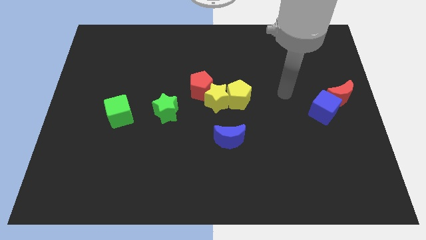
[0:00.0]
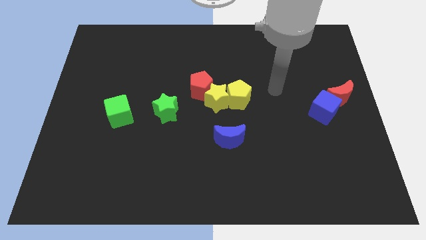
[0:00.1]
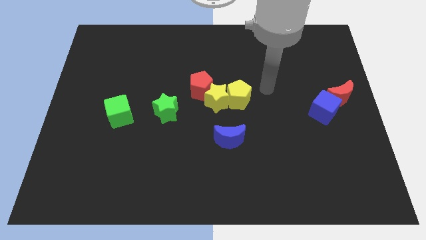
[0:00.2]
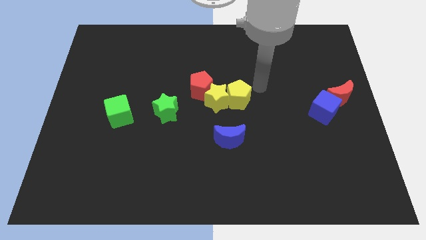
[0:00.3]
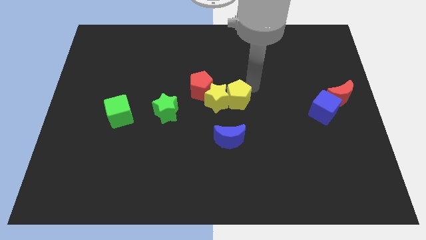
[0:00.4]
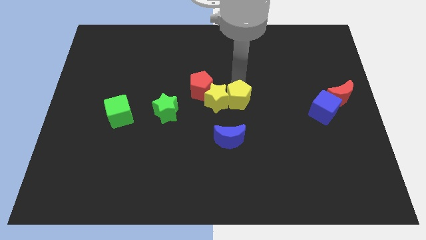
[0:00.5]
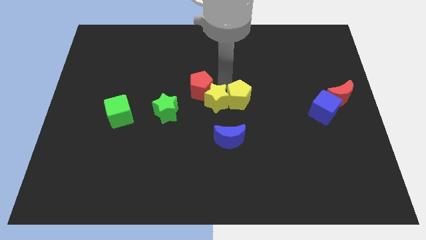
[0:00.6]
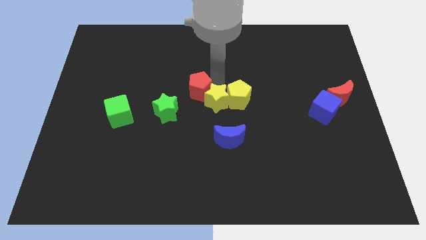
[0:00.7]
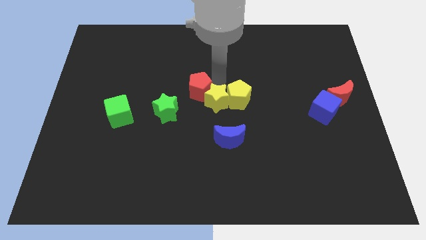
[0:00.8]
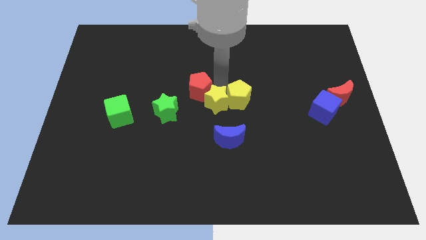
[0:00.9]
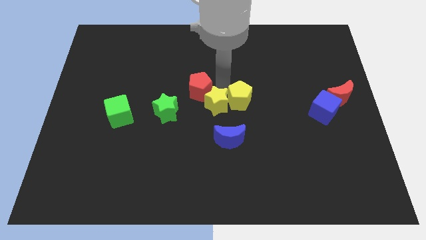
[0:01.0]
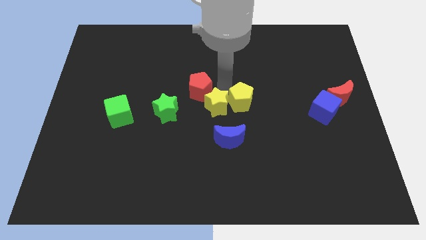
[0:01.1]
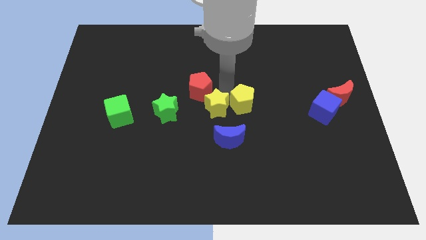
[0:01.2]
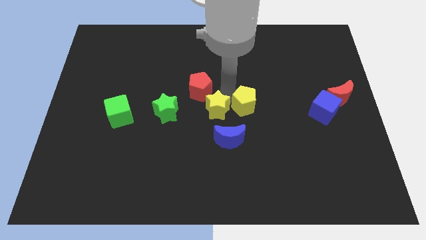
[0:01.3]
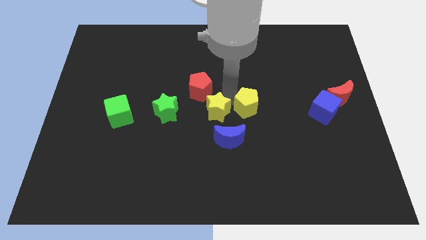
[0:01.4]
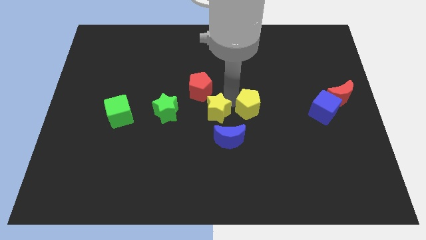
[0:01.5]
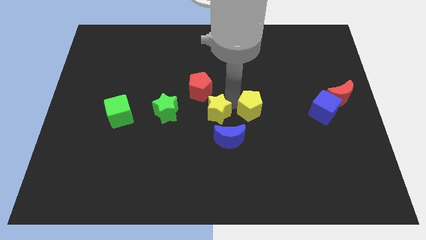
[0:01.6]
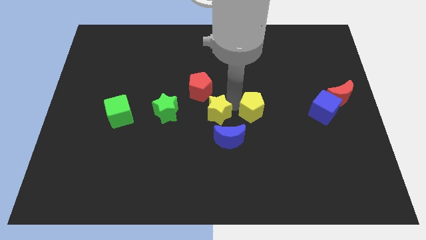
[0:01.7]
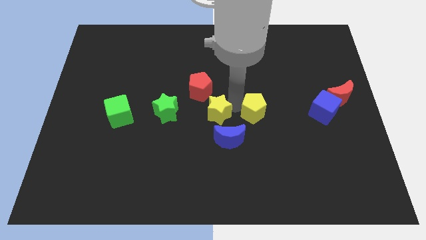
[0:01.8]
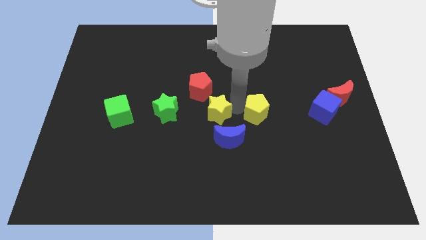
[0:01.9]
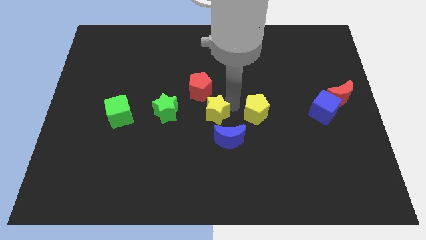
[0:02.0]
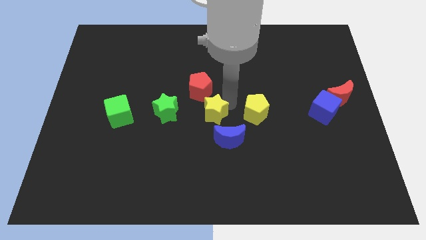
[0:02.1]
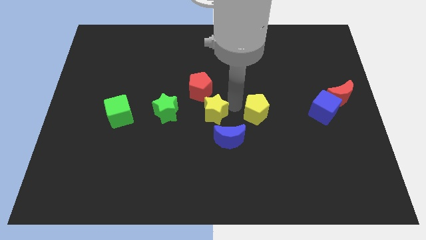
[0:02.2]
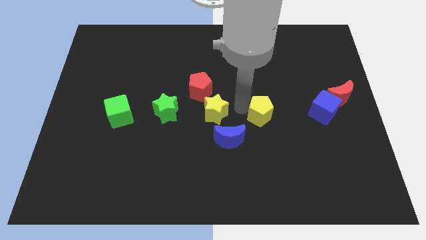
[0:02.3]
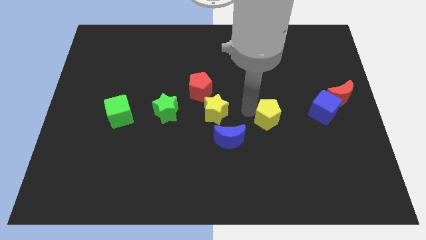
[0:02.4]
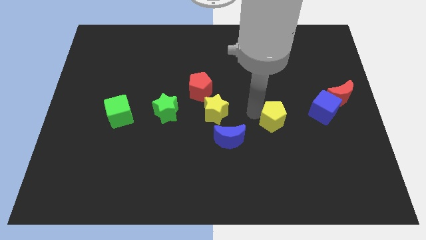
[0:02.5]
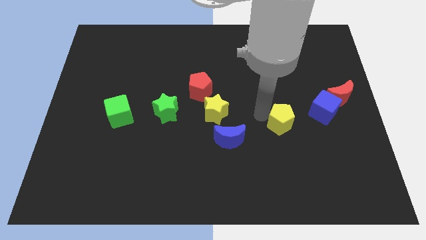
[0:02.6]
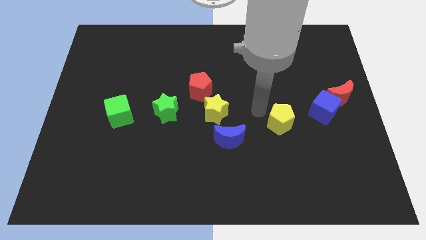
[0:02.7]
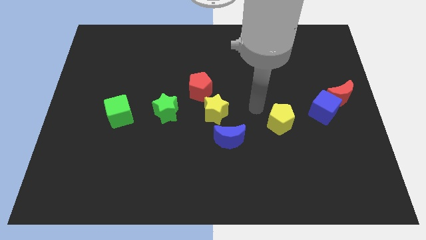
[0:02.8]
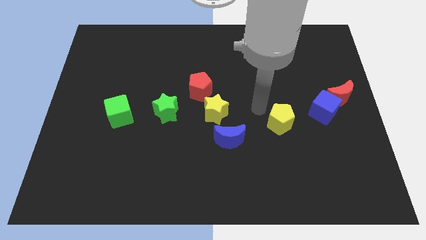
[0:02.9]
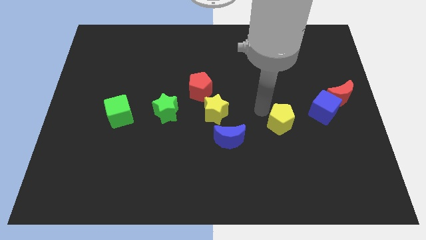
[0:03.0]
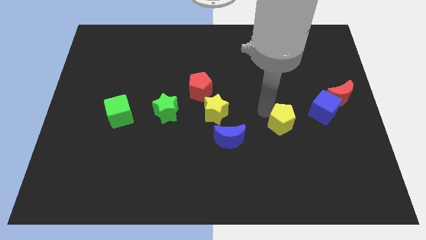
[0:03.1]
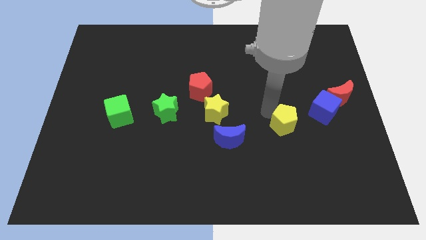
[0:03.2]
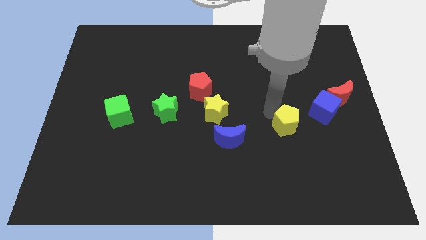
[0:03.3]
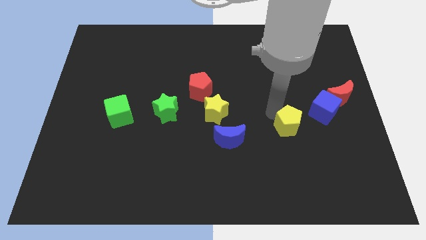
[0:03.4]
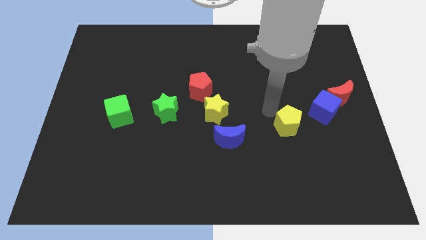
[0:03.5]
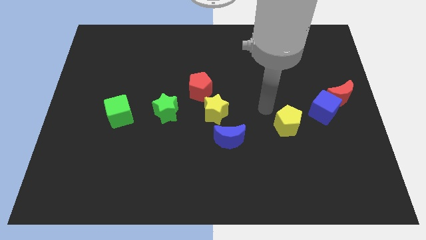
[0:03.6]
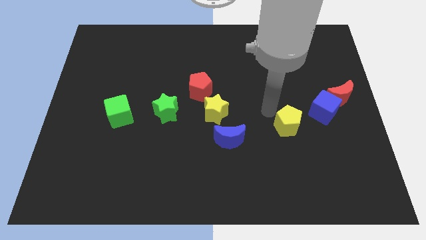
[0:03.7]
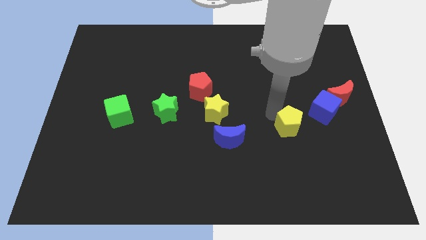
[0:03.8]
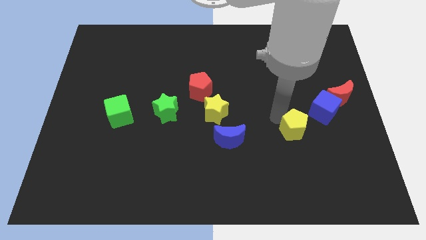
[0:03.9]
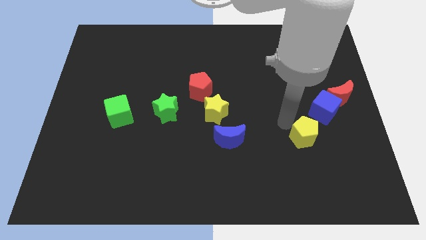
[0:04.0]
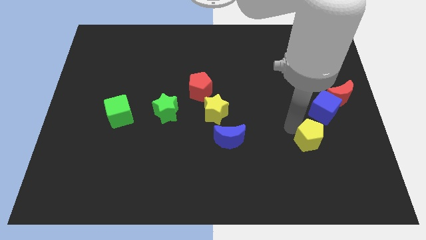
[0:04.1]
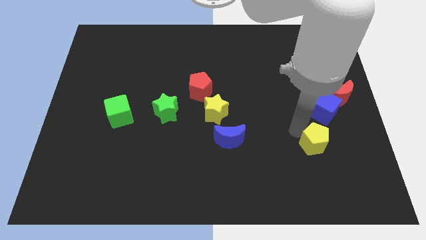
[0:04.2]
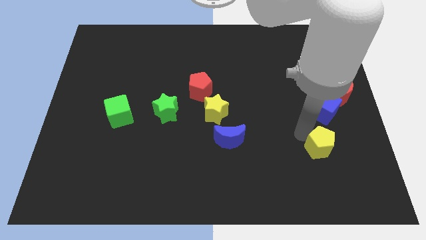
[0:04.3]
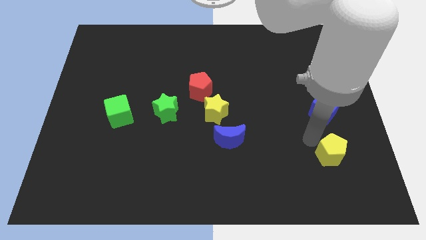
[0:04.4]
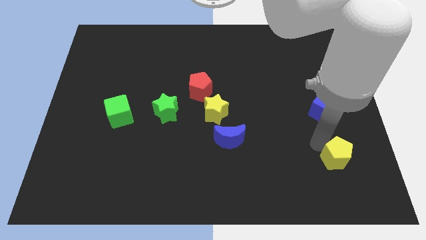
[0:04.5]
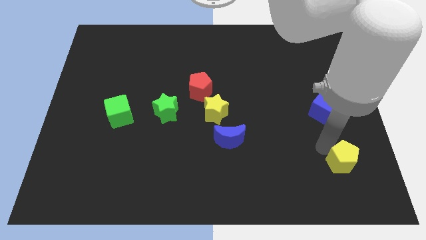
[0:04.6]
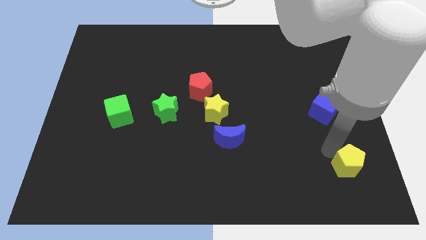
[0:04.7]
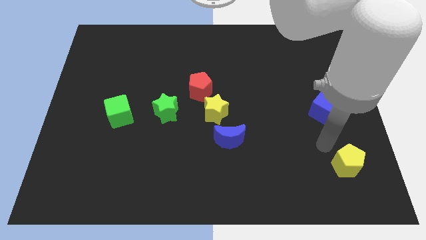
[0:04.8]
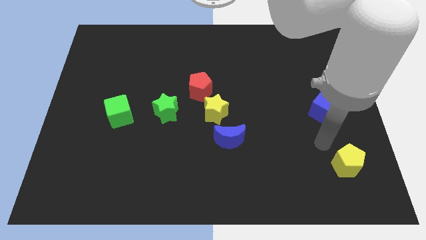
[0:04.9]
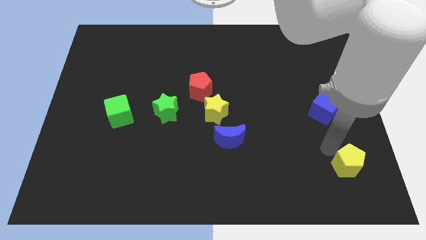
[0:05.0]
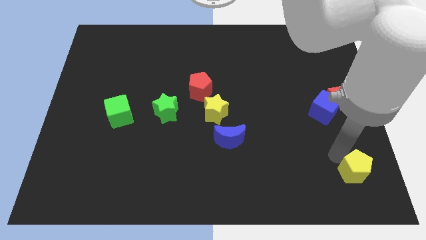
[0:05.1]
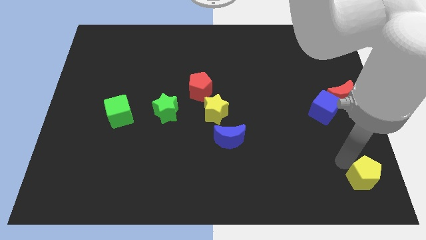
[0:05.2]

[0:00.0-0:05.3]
put the yellow pentagon to the bottom right corner

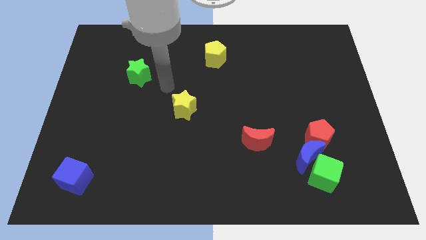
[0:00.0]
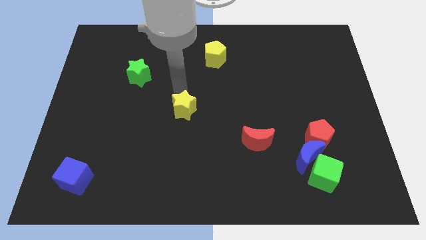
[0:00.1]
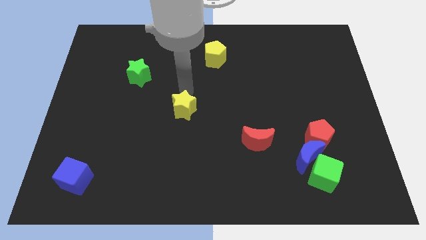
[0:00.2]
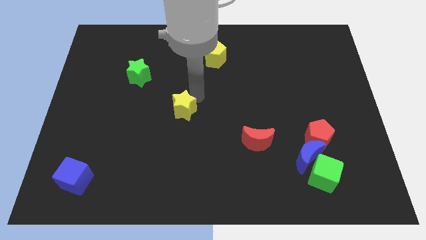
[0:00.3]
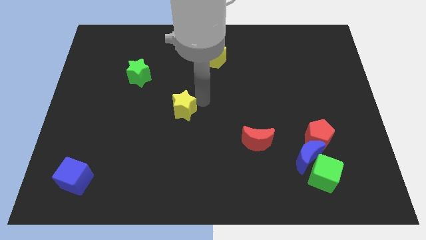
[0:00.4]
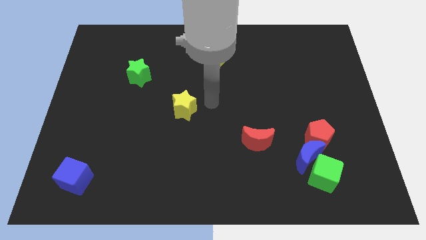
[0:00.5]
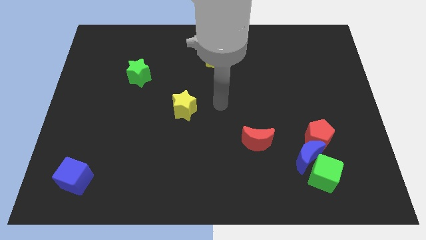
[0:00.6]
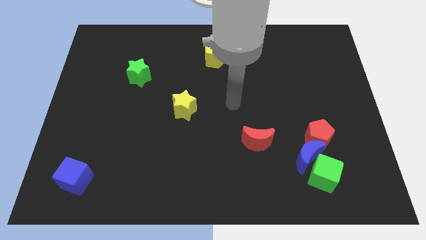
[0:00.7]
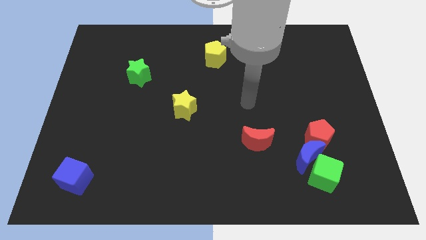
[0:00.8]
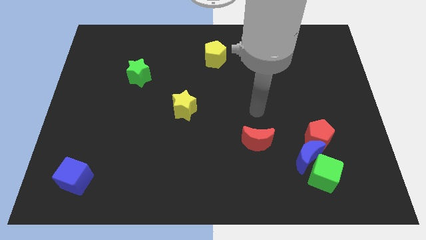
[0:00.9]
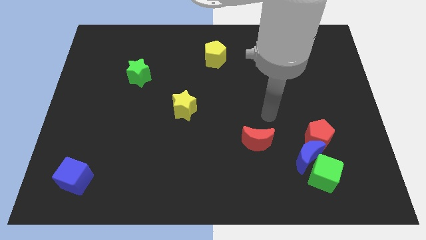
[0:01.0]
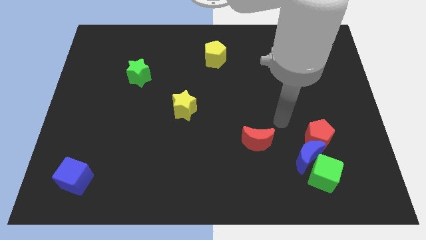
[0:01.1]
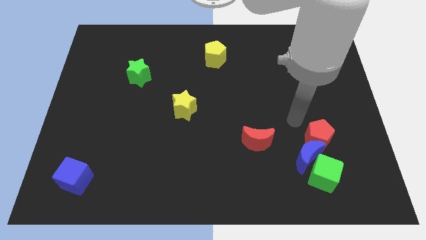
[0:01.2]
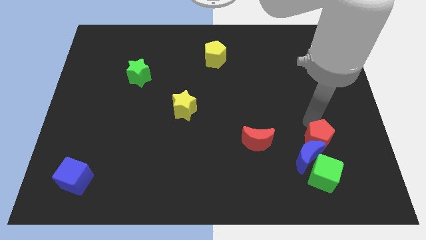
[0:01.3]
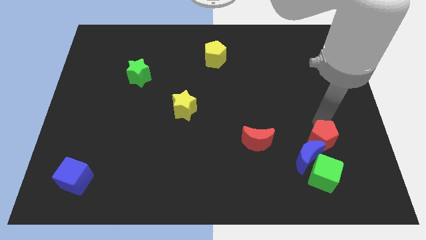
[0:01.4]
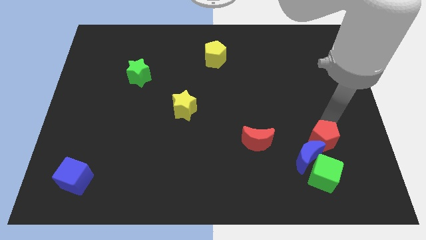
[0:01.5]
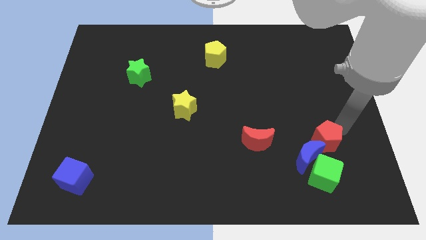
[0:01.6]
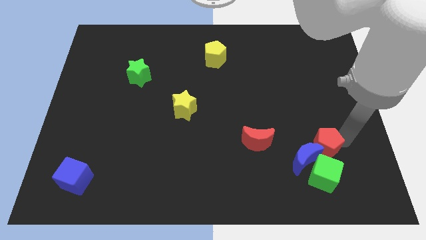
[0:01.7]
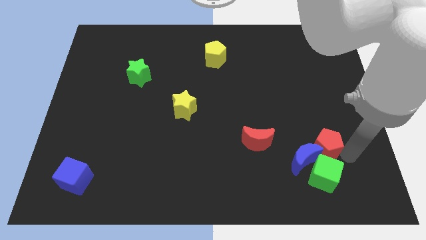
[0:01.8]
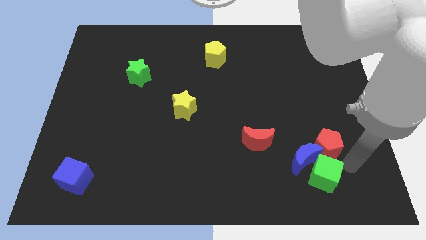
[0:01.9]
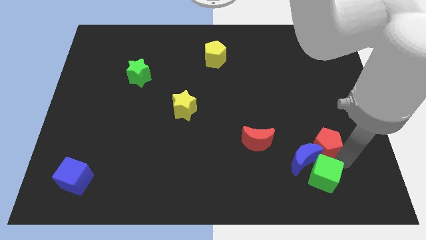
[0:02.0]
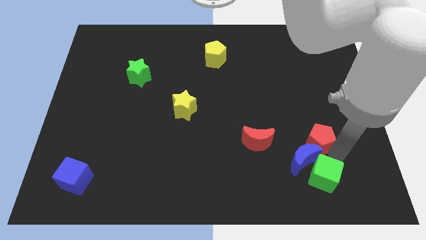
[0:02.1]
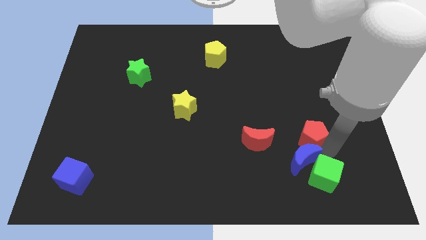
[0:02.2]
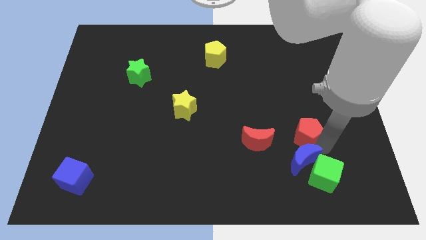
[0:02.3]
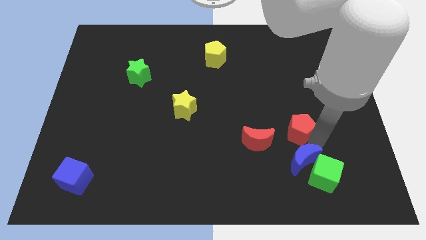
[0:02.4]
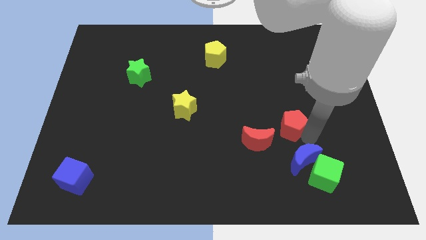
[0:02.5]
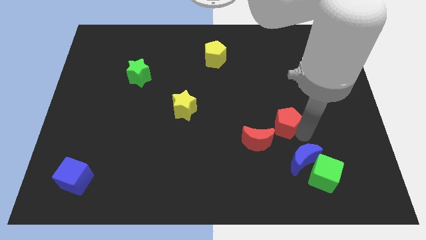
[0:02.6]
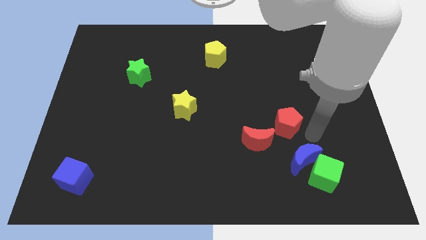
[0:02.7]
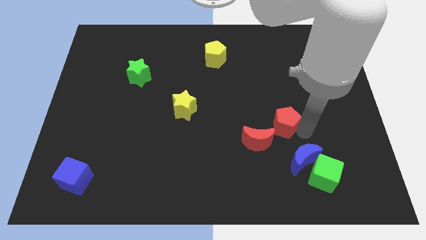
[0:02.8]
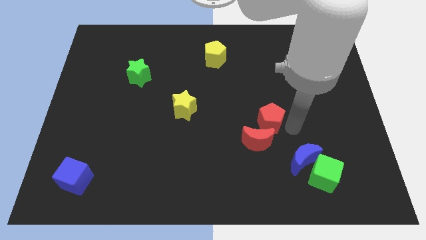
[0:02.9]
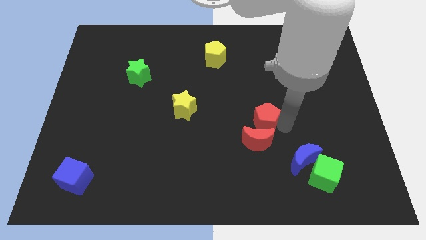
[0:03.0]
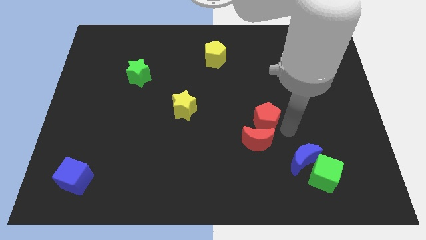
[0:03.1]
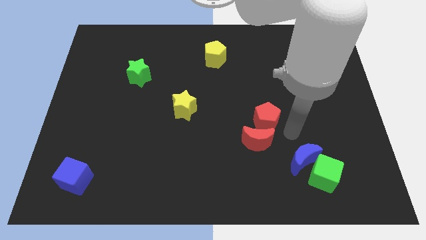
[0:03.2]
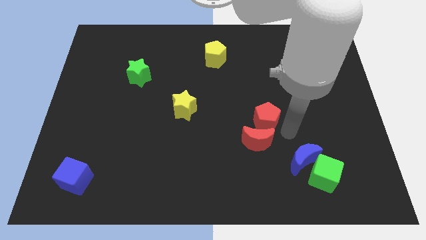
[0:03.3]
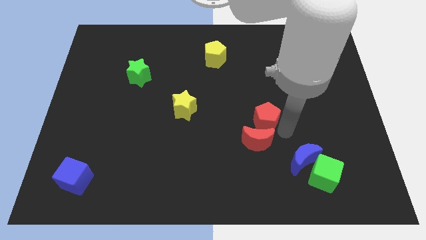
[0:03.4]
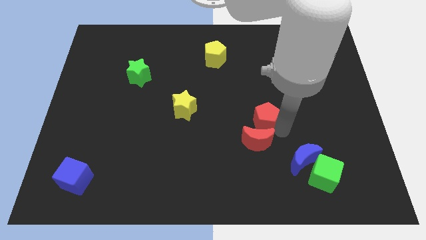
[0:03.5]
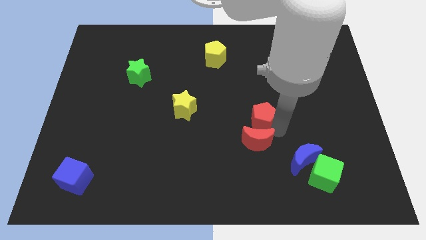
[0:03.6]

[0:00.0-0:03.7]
move the red pentagon to the middle of the board
